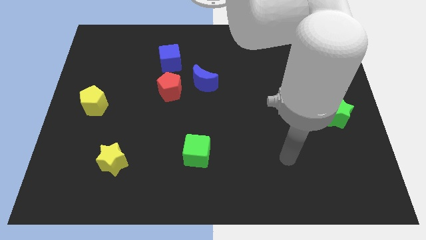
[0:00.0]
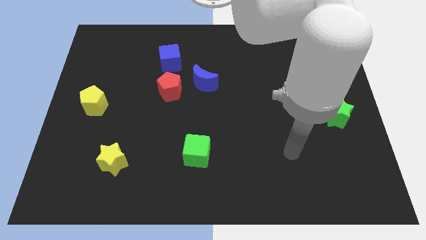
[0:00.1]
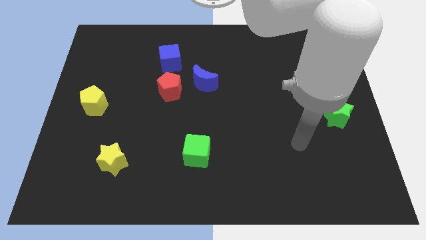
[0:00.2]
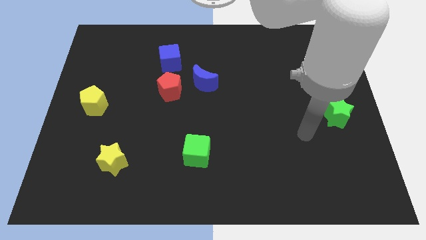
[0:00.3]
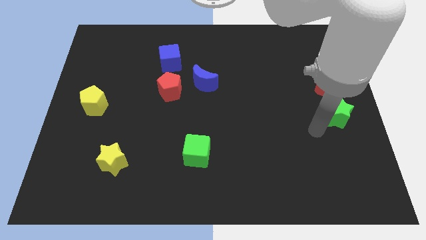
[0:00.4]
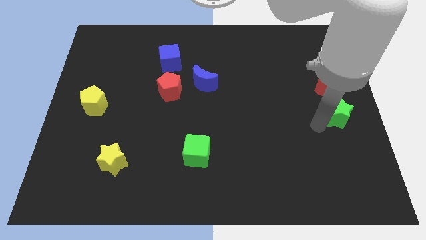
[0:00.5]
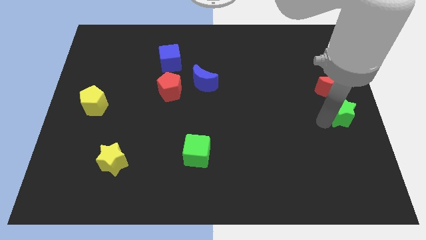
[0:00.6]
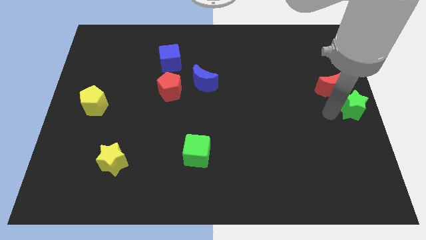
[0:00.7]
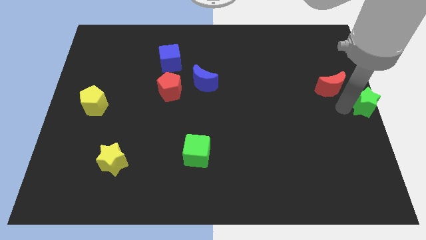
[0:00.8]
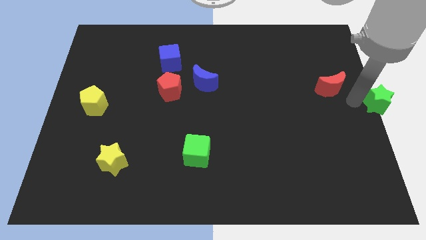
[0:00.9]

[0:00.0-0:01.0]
pull the red moon apart from the green star

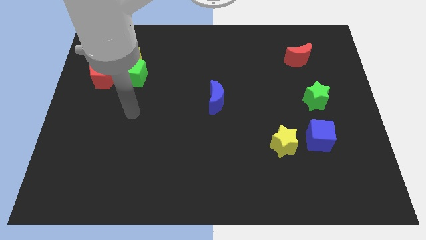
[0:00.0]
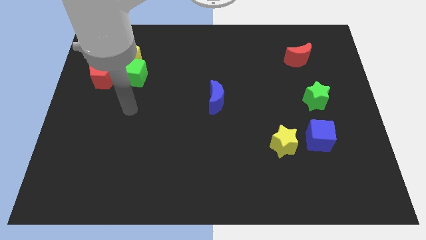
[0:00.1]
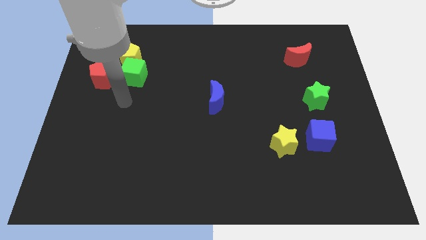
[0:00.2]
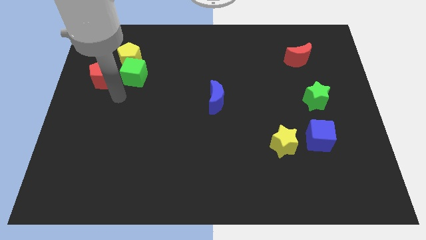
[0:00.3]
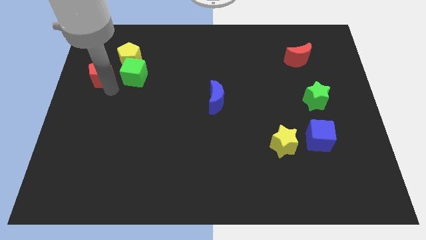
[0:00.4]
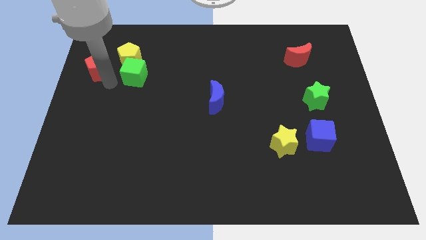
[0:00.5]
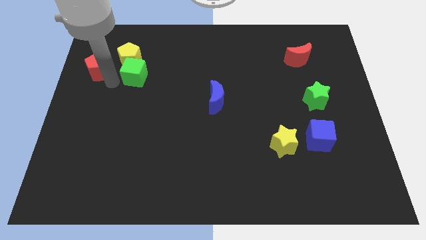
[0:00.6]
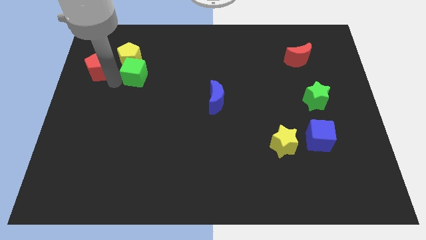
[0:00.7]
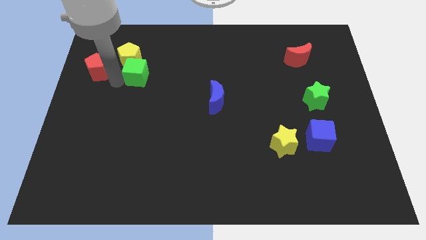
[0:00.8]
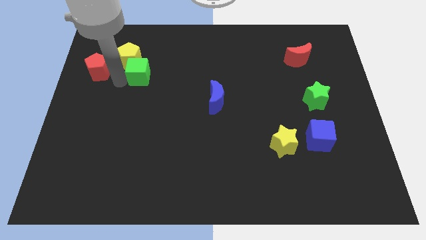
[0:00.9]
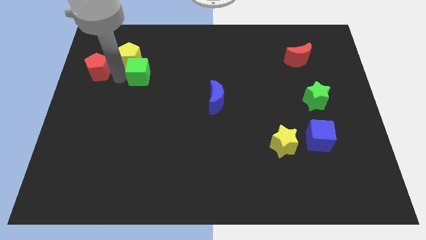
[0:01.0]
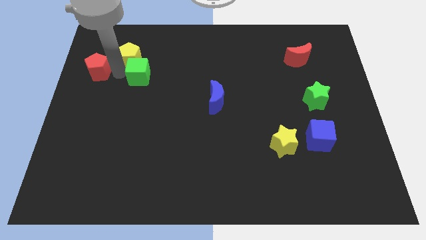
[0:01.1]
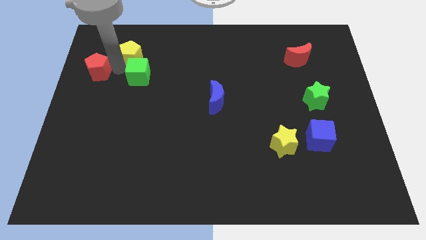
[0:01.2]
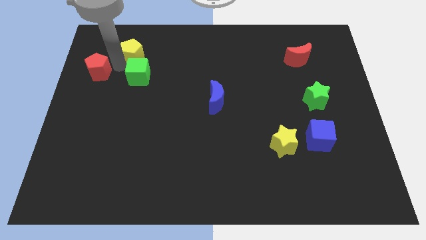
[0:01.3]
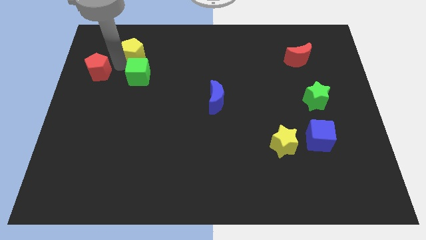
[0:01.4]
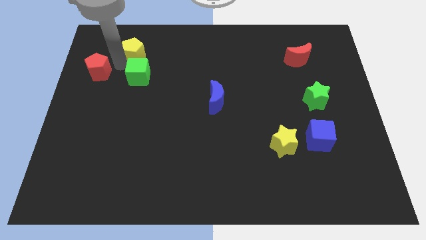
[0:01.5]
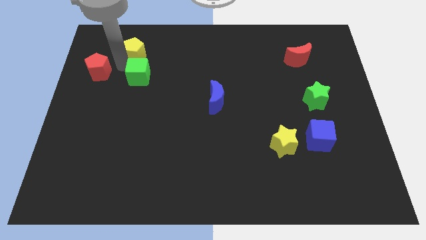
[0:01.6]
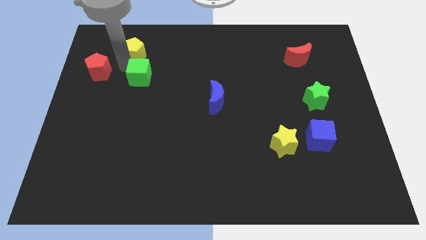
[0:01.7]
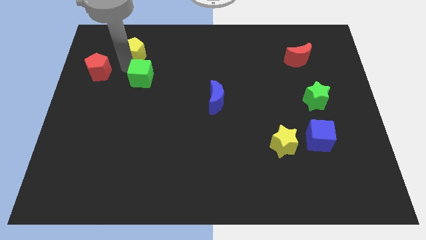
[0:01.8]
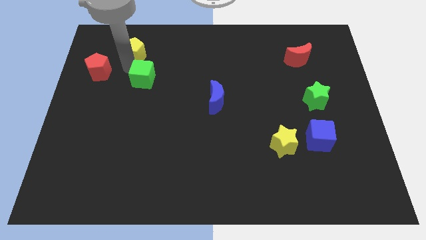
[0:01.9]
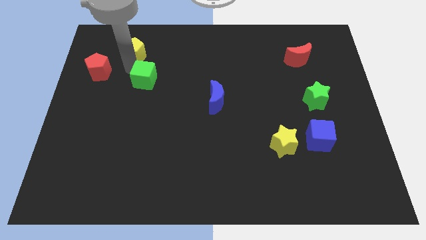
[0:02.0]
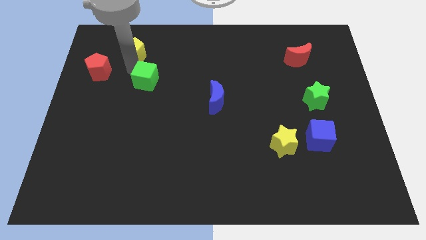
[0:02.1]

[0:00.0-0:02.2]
separate the green cube from the yellow pentagon and red pentagon

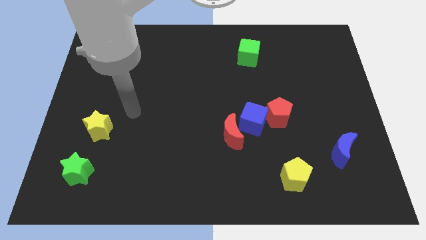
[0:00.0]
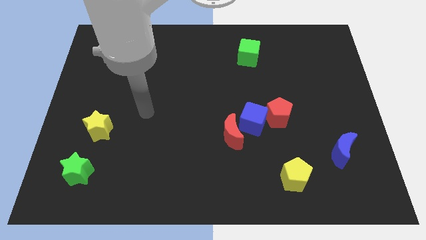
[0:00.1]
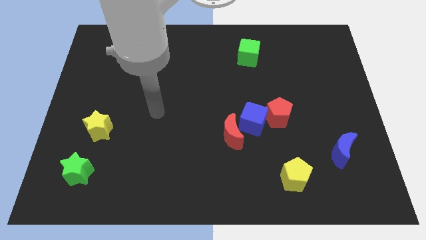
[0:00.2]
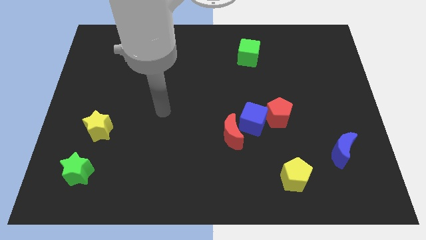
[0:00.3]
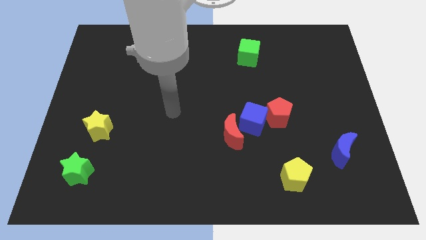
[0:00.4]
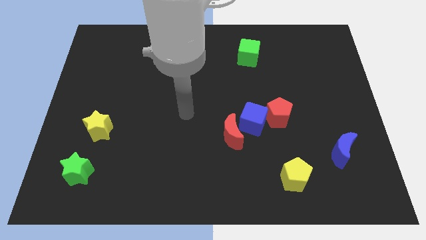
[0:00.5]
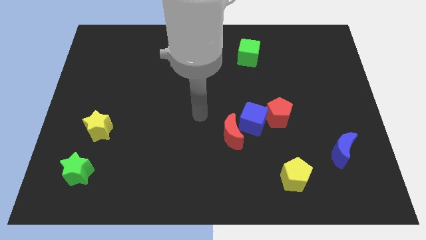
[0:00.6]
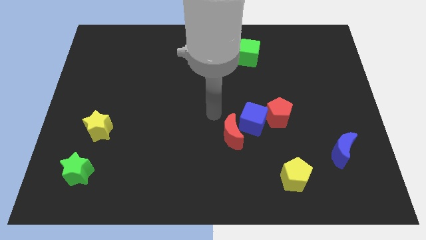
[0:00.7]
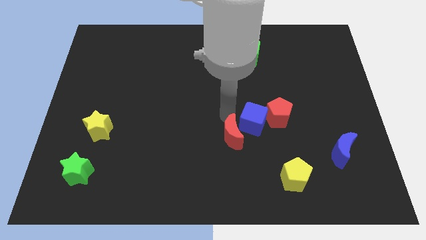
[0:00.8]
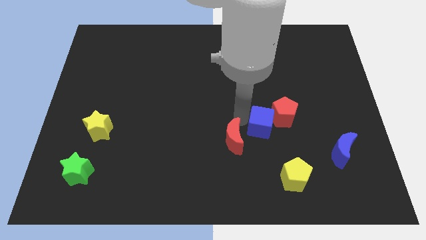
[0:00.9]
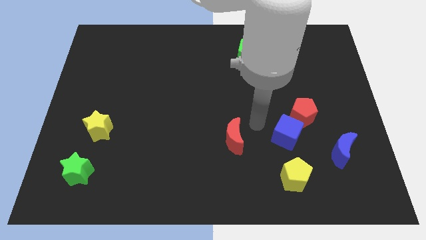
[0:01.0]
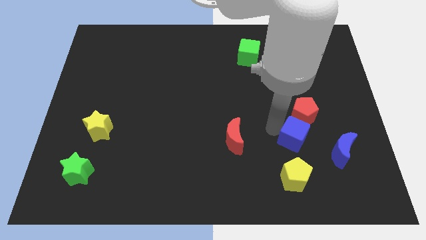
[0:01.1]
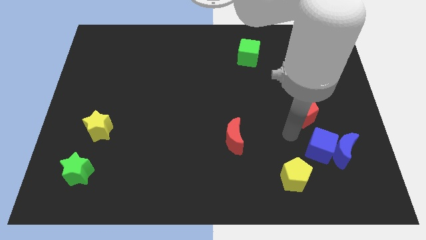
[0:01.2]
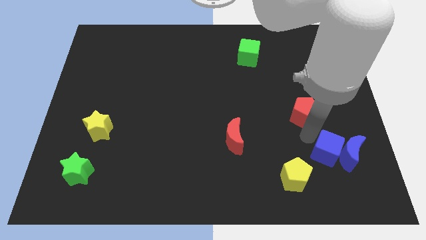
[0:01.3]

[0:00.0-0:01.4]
pull the red pentagon apart from the blue cube

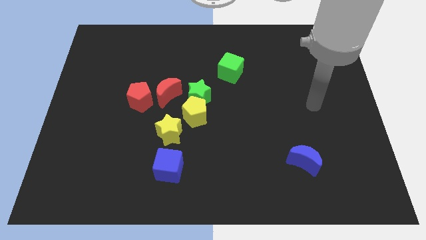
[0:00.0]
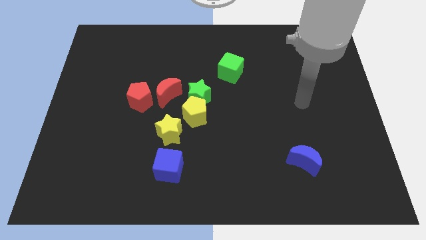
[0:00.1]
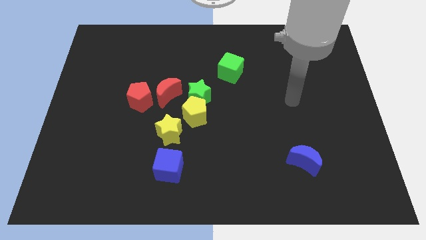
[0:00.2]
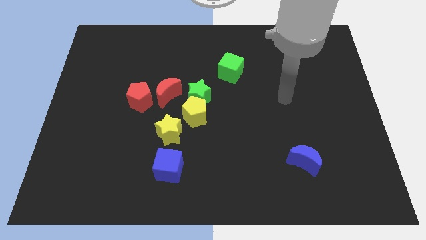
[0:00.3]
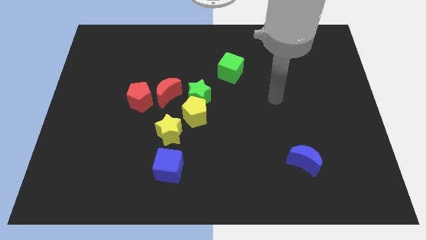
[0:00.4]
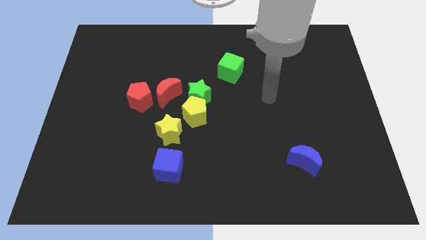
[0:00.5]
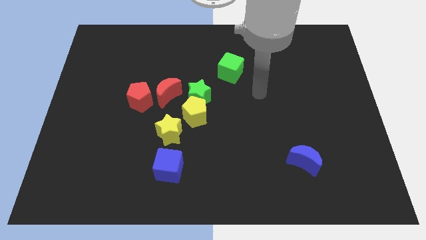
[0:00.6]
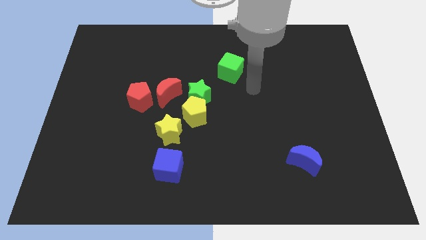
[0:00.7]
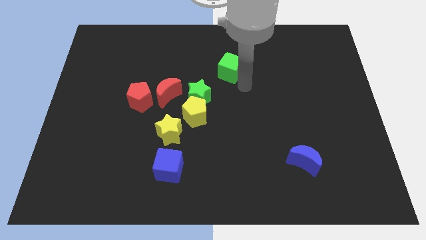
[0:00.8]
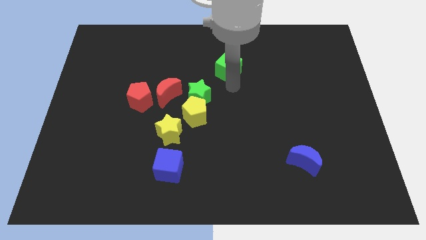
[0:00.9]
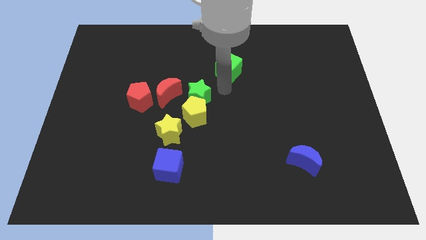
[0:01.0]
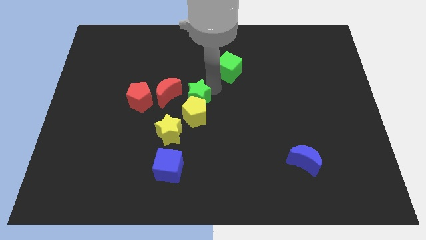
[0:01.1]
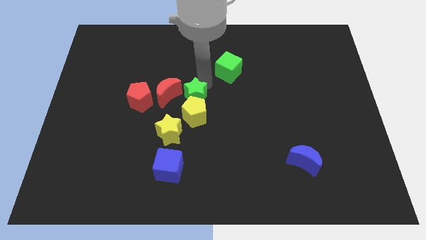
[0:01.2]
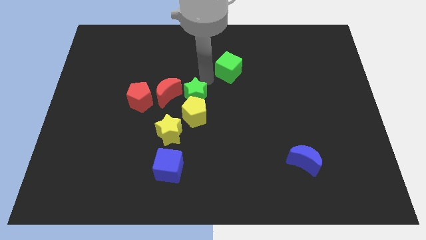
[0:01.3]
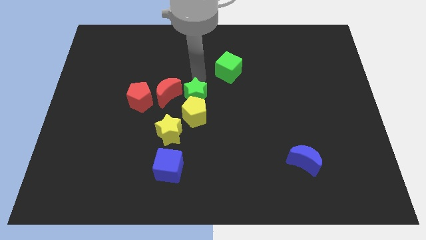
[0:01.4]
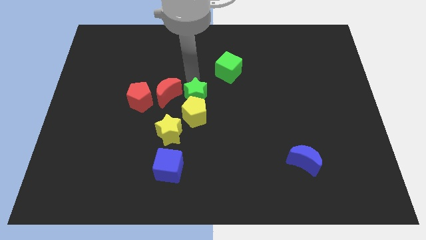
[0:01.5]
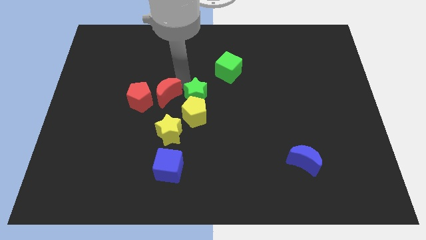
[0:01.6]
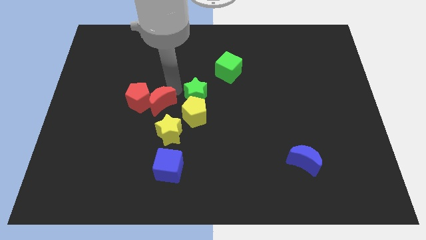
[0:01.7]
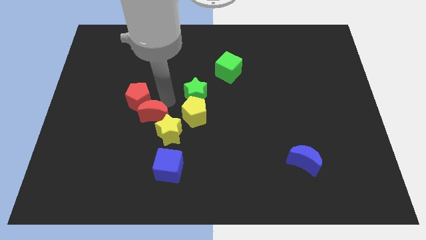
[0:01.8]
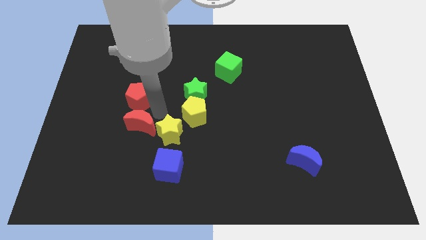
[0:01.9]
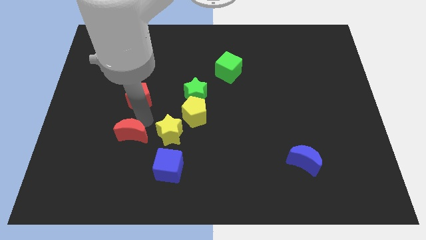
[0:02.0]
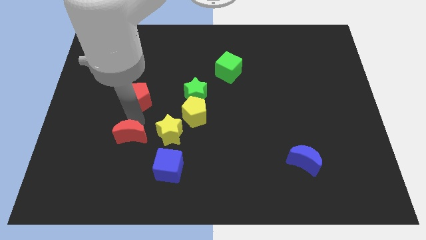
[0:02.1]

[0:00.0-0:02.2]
pull the red pentagon apart from the red moon

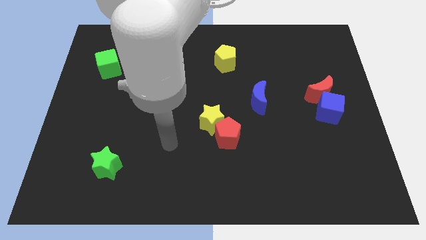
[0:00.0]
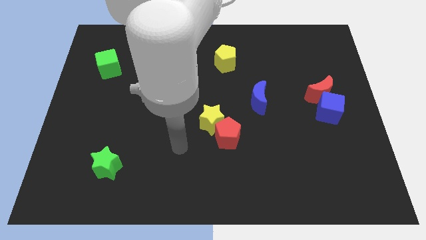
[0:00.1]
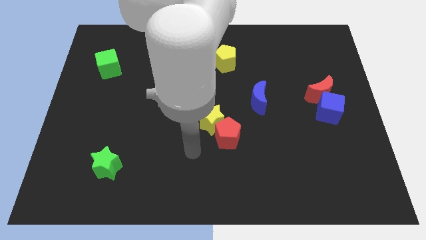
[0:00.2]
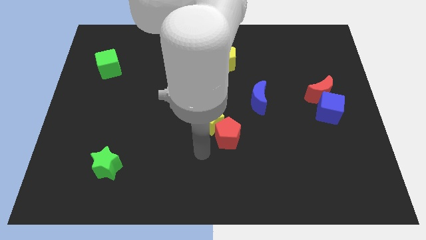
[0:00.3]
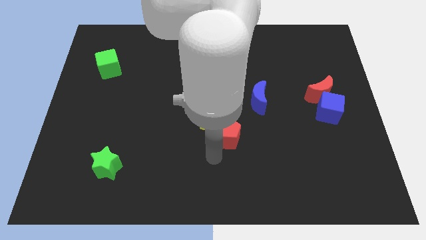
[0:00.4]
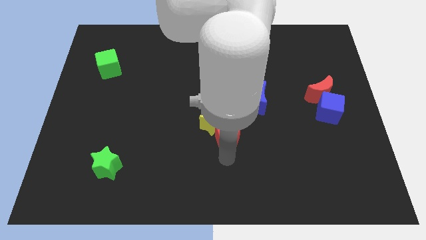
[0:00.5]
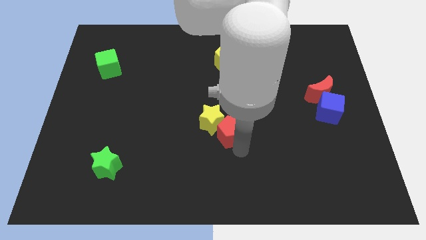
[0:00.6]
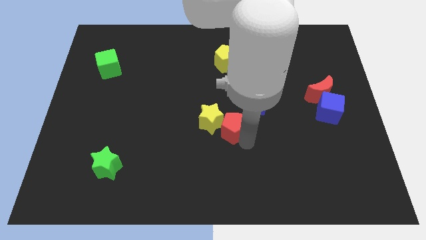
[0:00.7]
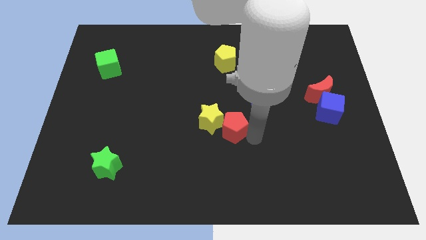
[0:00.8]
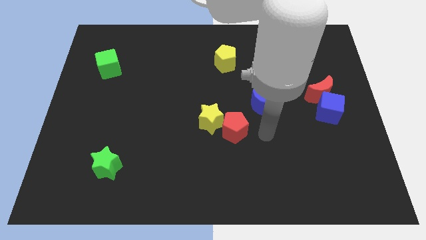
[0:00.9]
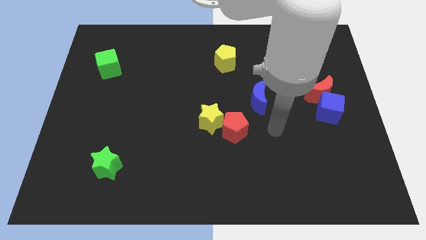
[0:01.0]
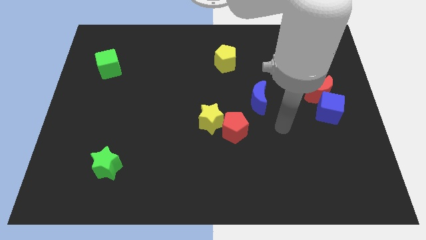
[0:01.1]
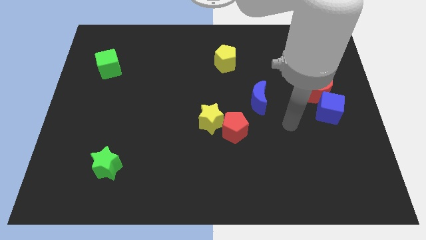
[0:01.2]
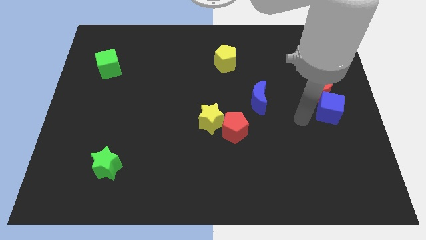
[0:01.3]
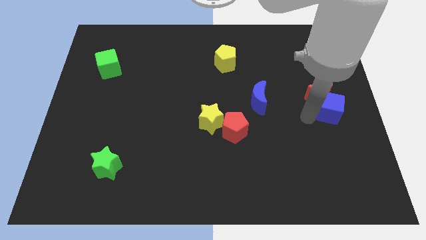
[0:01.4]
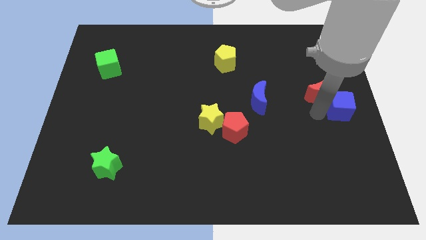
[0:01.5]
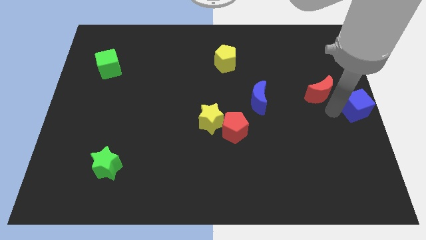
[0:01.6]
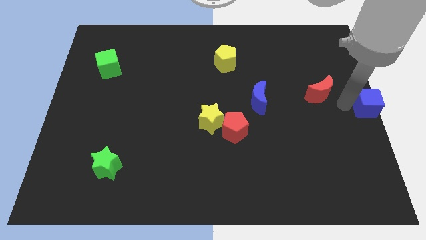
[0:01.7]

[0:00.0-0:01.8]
move the red moon away from the blue cube

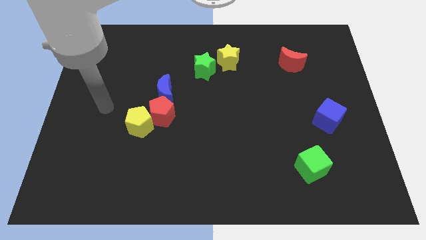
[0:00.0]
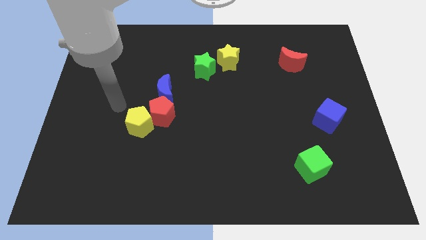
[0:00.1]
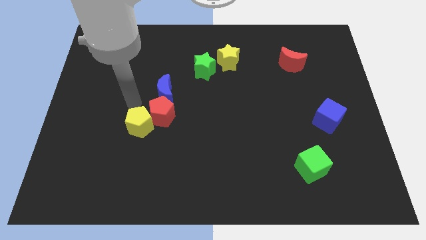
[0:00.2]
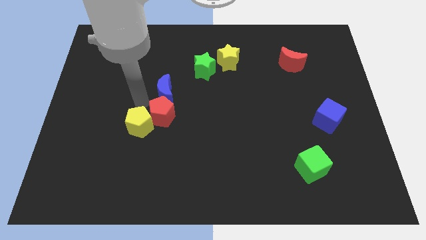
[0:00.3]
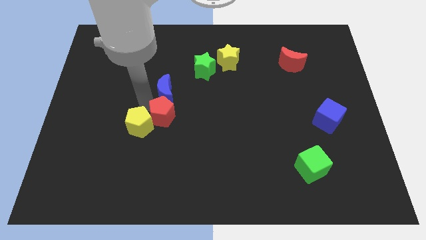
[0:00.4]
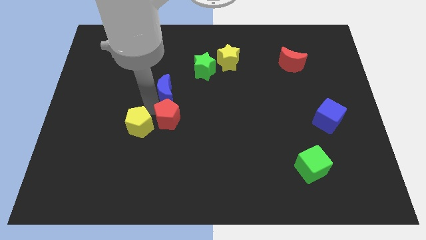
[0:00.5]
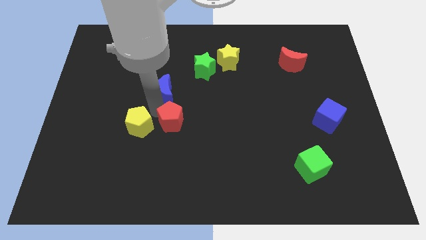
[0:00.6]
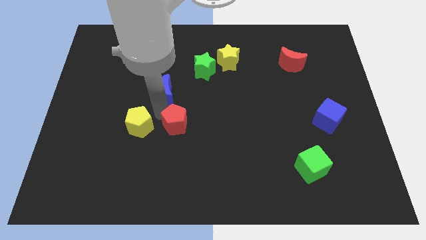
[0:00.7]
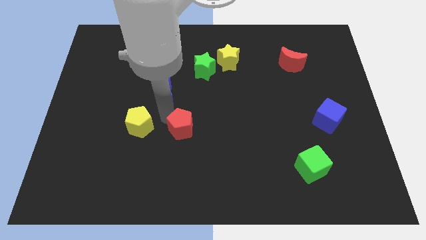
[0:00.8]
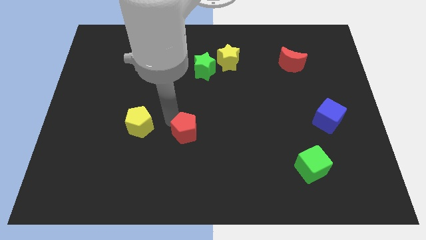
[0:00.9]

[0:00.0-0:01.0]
move the red pentagon away from the yellow pentagon and blue moon
